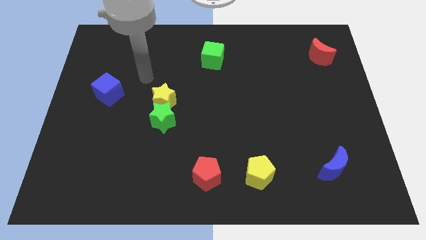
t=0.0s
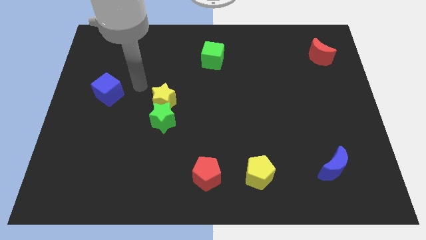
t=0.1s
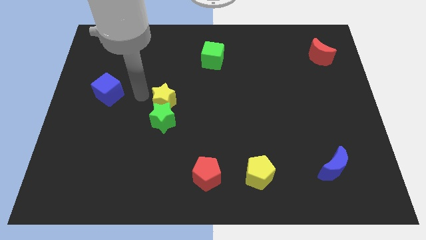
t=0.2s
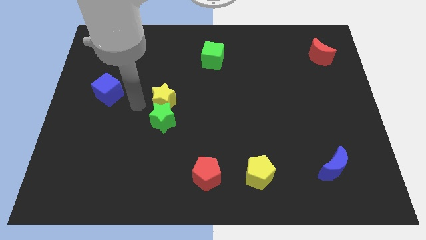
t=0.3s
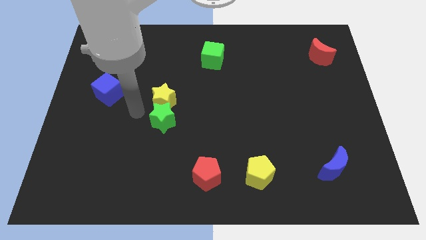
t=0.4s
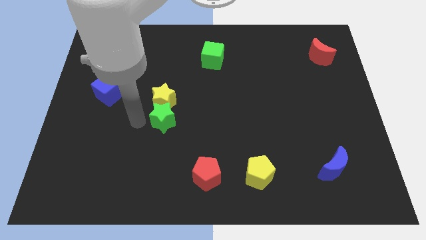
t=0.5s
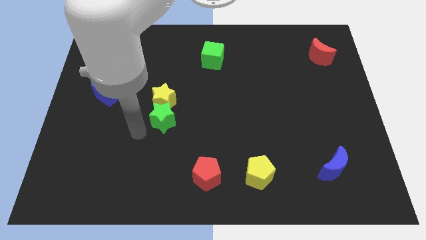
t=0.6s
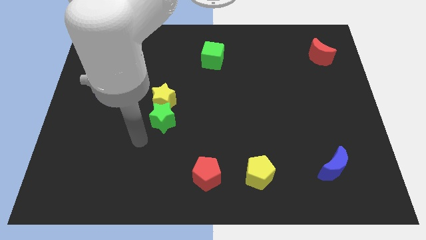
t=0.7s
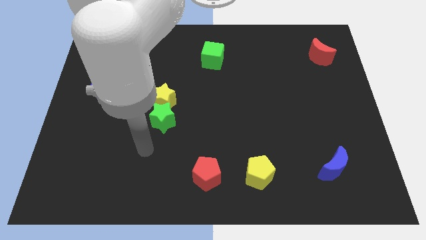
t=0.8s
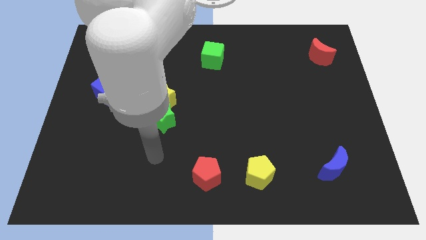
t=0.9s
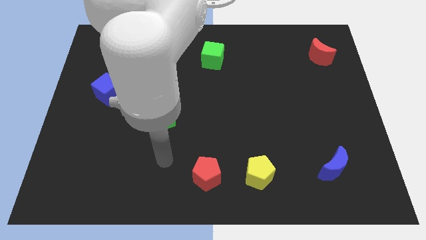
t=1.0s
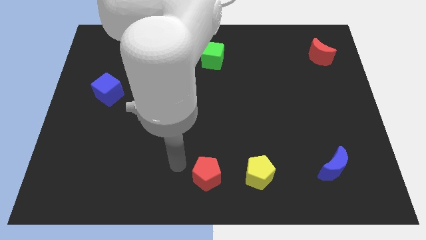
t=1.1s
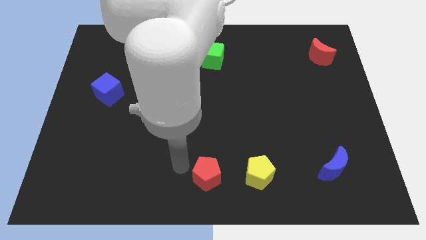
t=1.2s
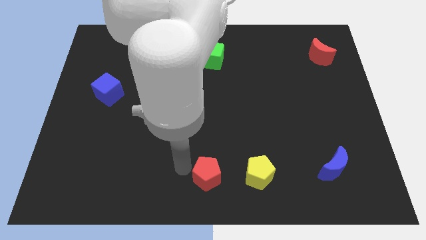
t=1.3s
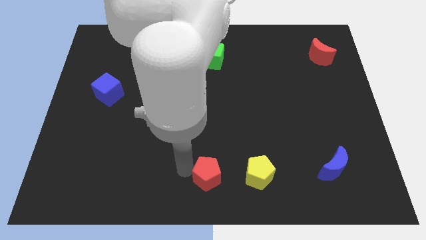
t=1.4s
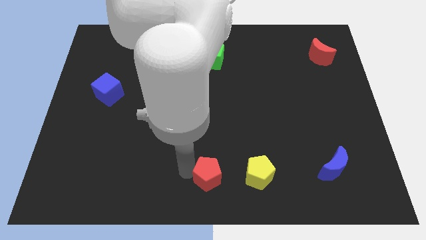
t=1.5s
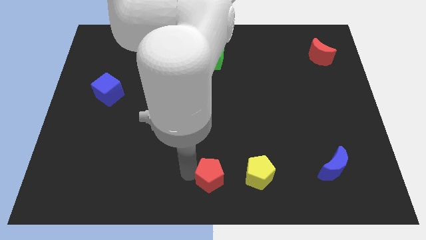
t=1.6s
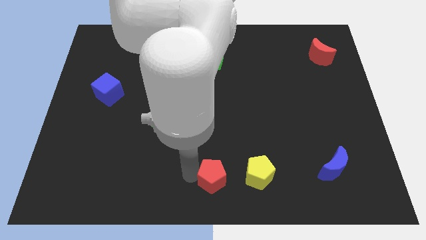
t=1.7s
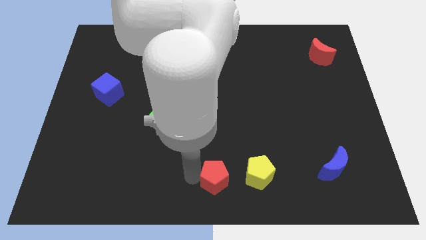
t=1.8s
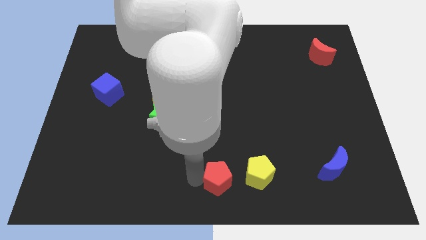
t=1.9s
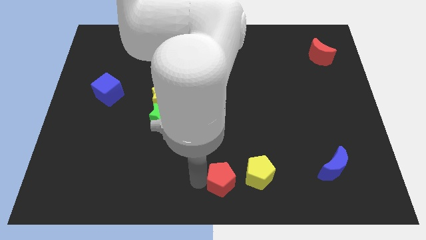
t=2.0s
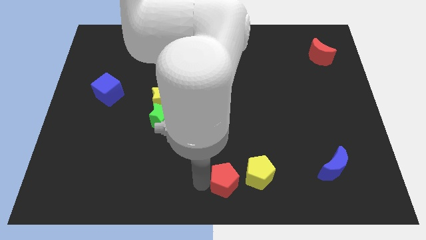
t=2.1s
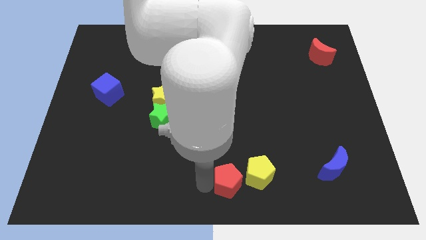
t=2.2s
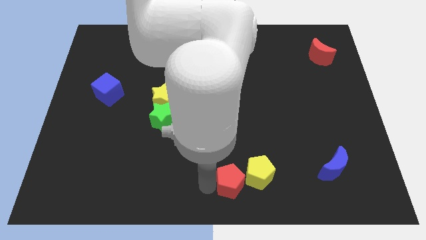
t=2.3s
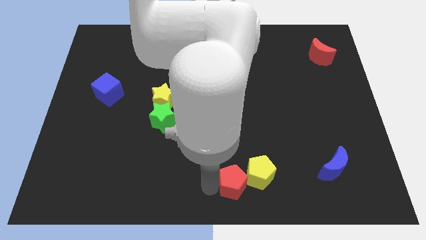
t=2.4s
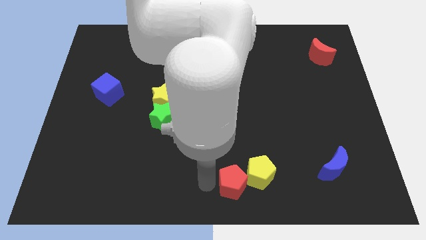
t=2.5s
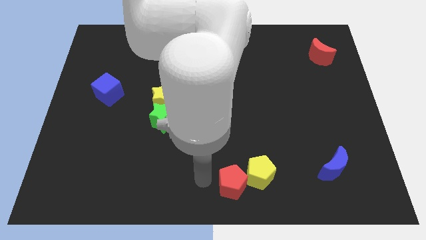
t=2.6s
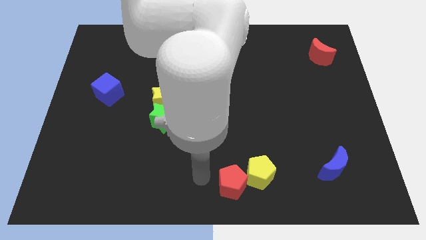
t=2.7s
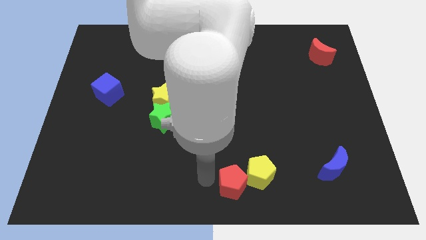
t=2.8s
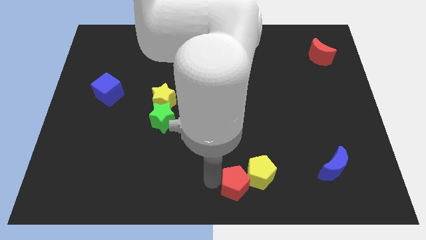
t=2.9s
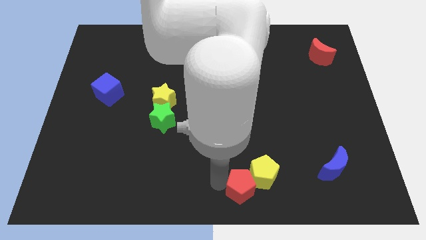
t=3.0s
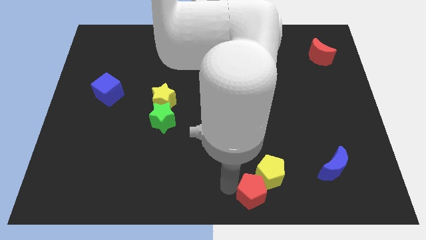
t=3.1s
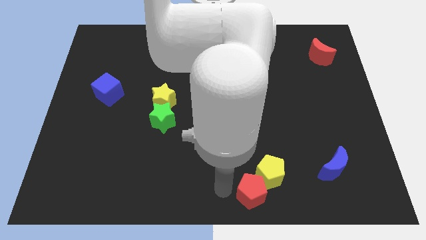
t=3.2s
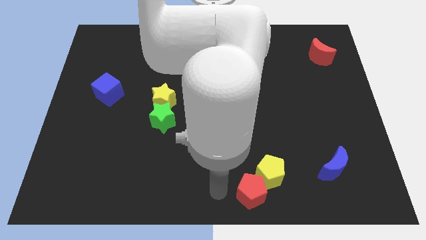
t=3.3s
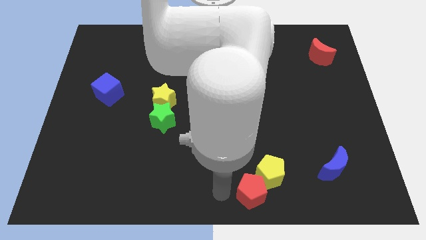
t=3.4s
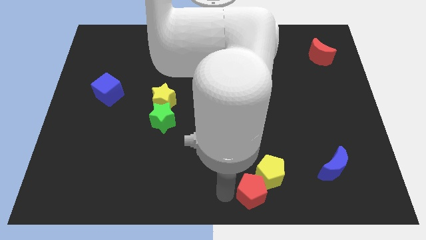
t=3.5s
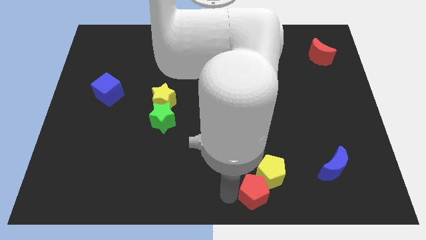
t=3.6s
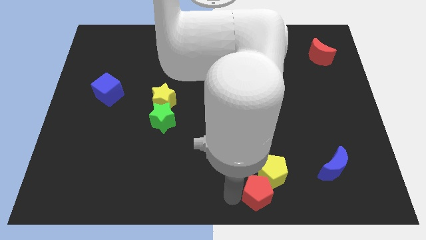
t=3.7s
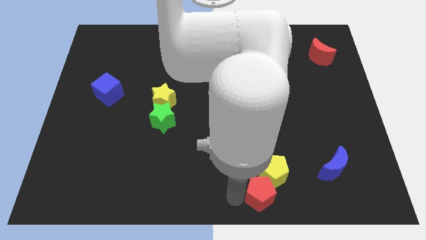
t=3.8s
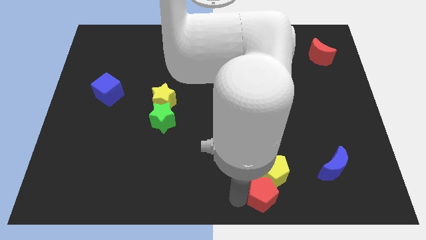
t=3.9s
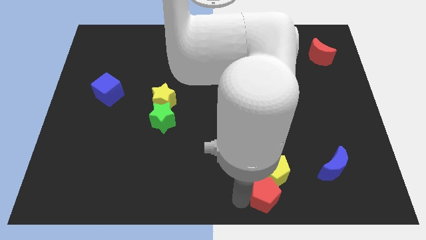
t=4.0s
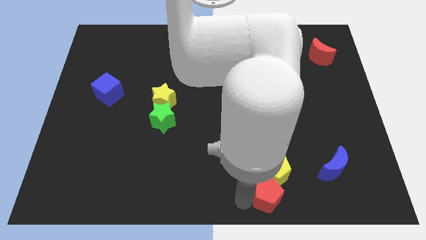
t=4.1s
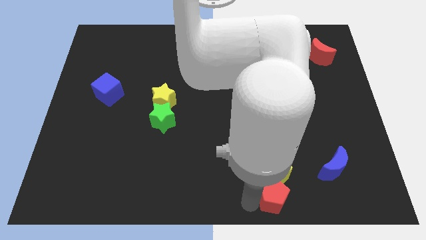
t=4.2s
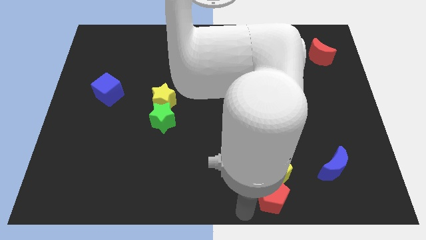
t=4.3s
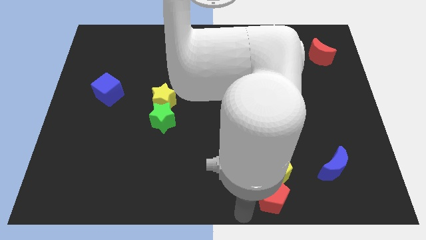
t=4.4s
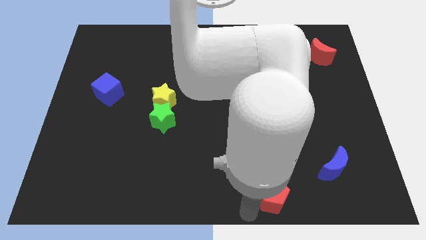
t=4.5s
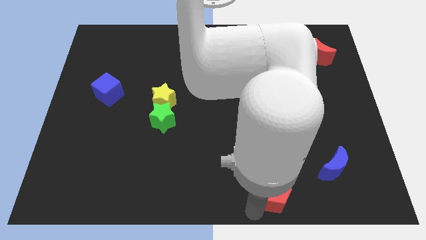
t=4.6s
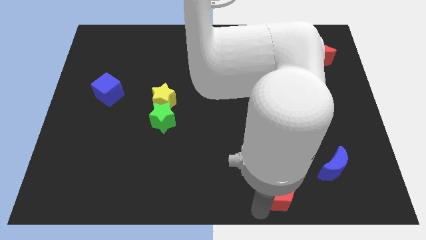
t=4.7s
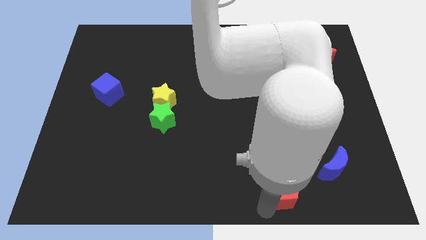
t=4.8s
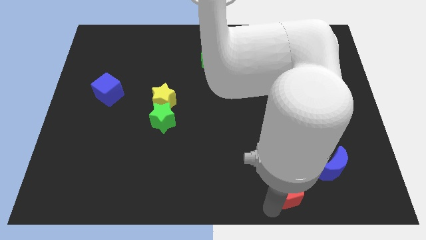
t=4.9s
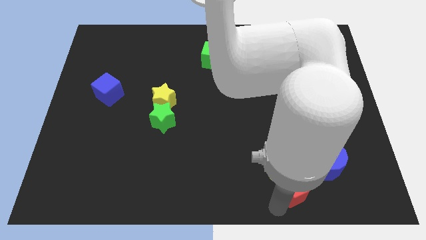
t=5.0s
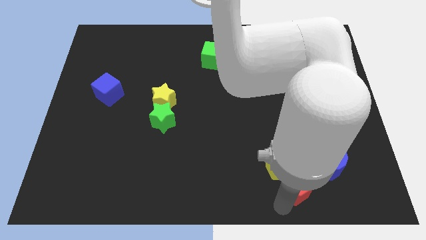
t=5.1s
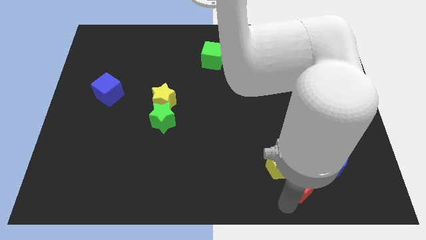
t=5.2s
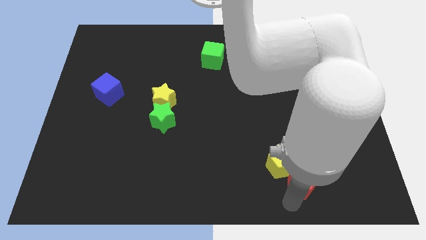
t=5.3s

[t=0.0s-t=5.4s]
move the red pentagon to the right side of the yellow pentagon

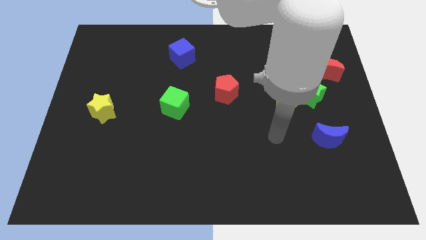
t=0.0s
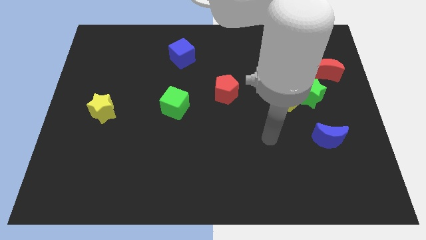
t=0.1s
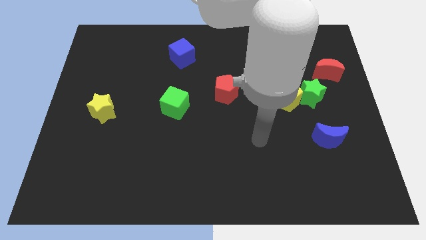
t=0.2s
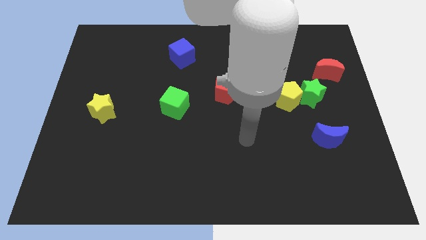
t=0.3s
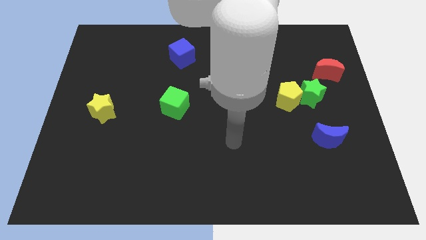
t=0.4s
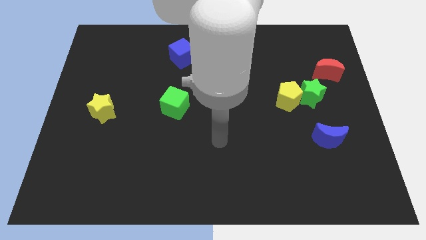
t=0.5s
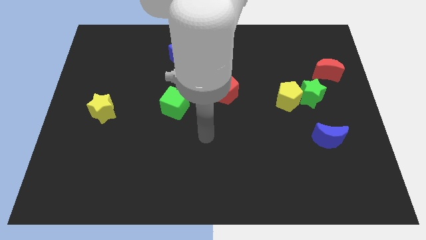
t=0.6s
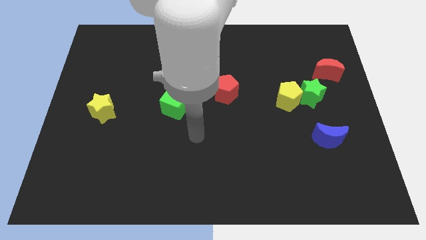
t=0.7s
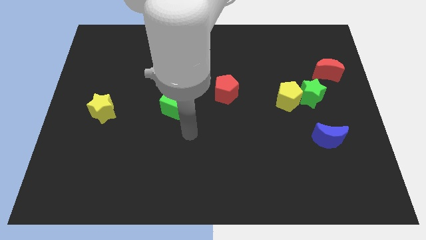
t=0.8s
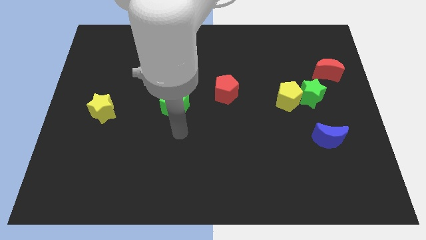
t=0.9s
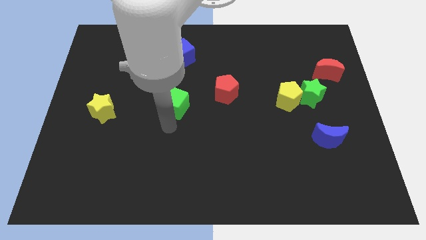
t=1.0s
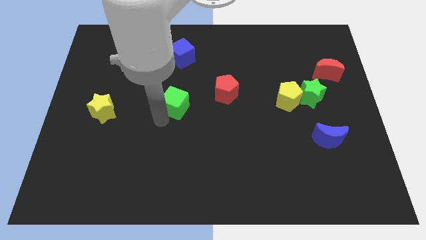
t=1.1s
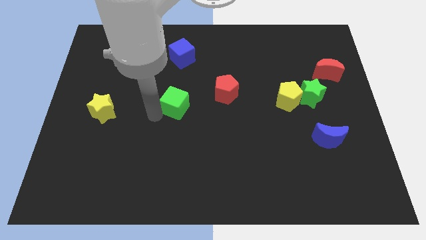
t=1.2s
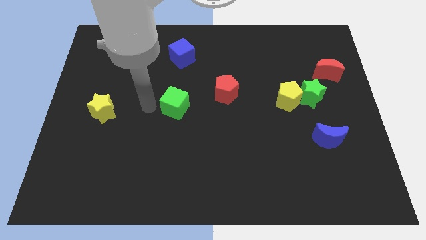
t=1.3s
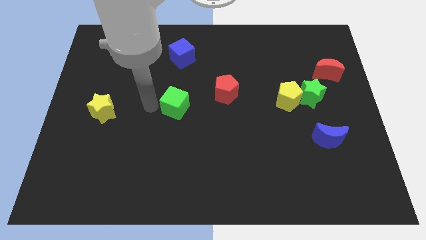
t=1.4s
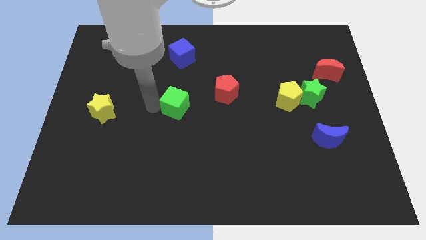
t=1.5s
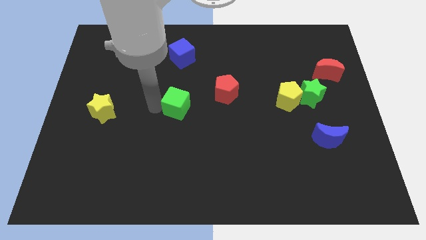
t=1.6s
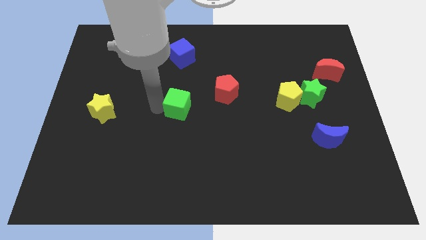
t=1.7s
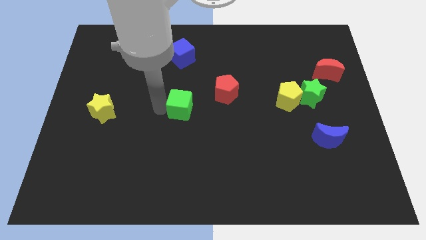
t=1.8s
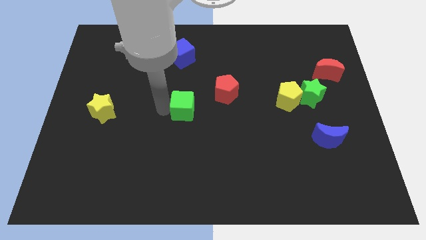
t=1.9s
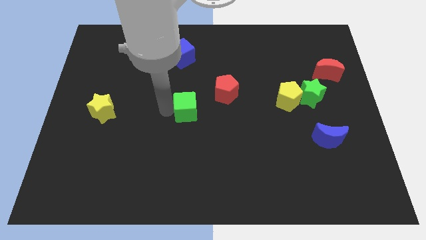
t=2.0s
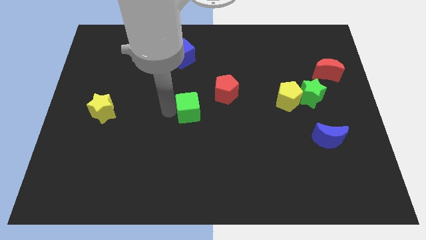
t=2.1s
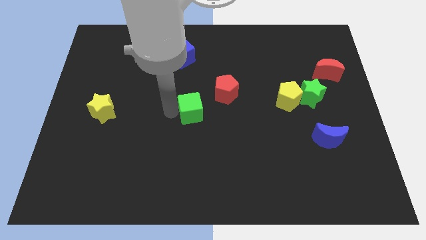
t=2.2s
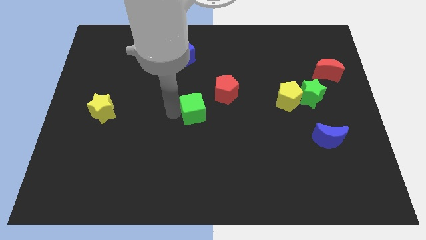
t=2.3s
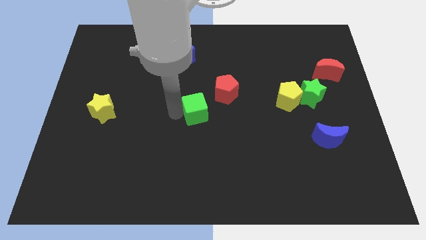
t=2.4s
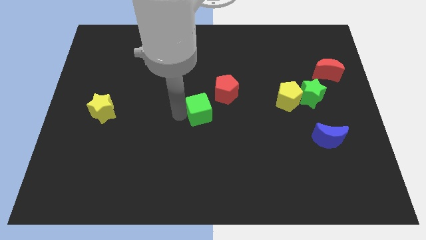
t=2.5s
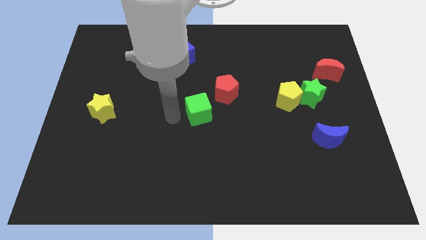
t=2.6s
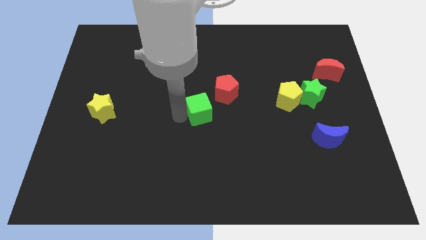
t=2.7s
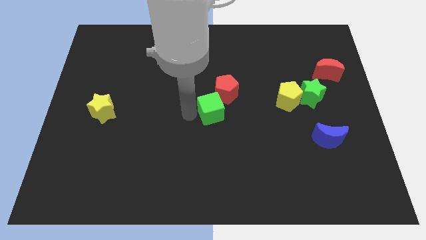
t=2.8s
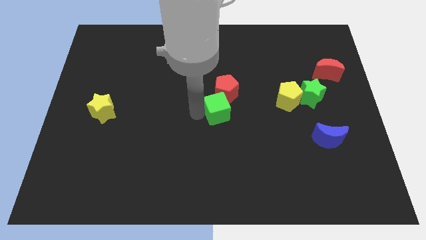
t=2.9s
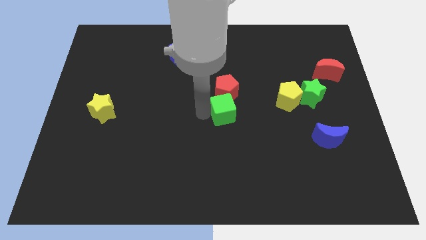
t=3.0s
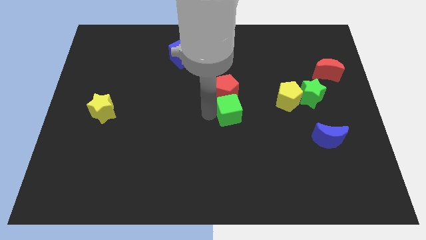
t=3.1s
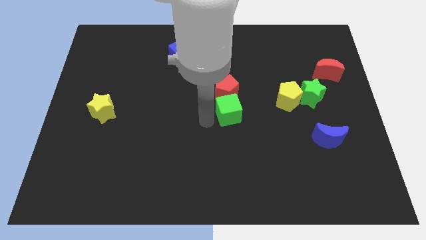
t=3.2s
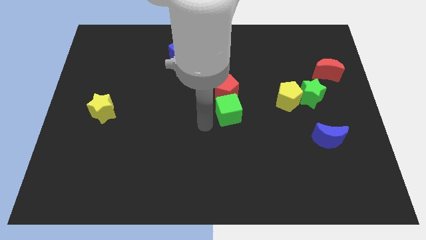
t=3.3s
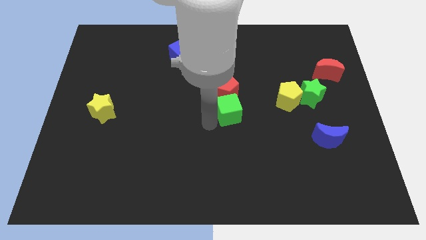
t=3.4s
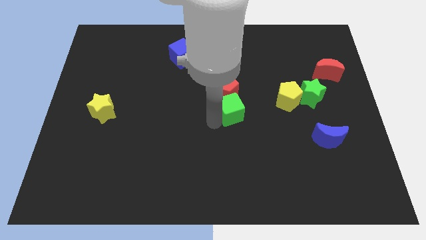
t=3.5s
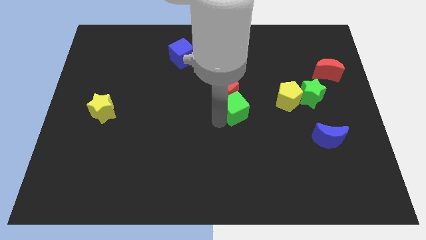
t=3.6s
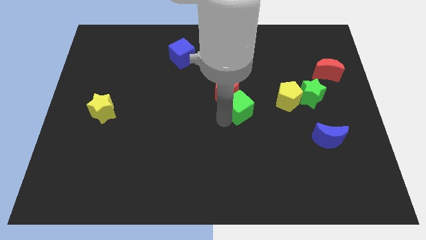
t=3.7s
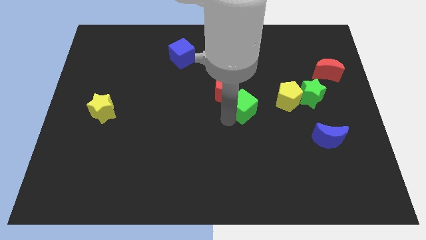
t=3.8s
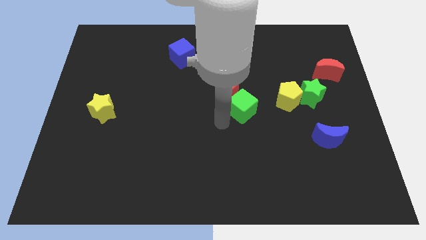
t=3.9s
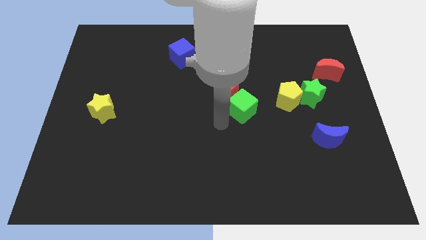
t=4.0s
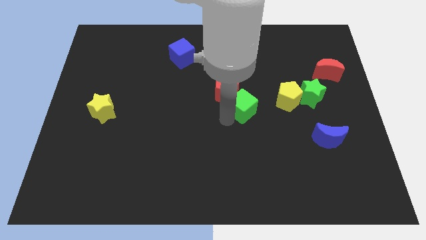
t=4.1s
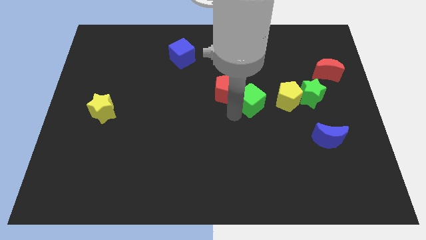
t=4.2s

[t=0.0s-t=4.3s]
slide the green cube to the right side of the red pentagon
